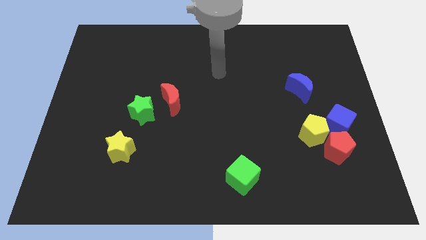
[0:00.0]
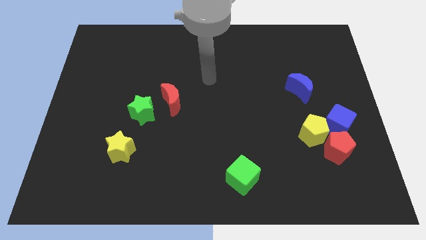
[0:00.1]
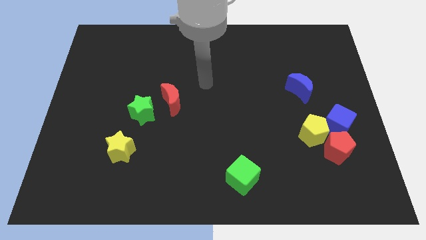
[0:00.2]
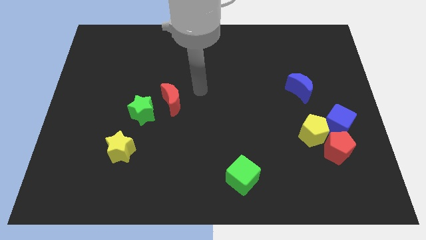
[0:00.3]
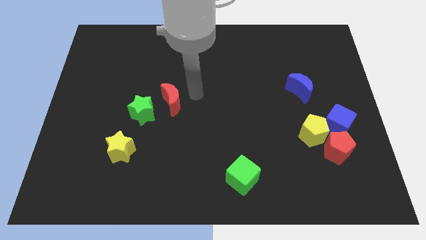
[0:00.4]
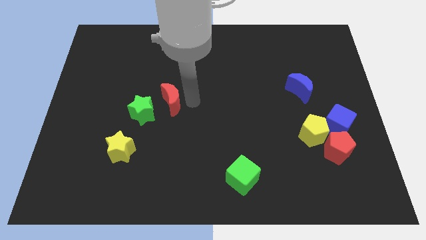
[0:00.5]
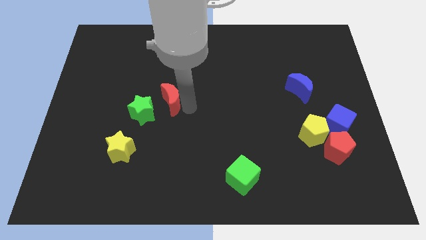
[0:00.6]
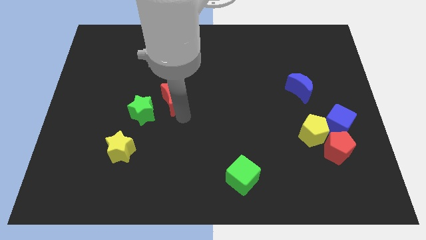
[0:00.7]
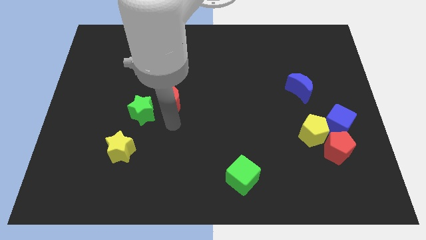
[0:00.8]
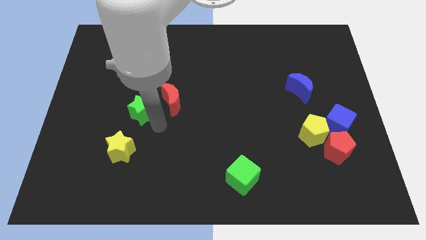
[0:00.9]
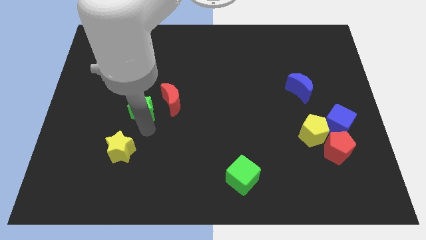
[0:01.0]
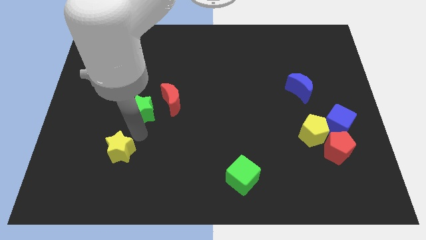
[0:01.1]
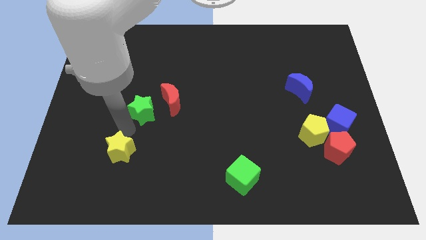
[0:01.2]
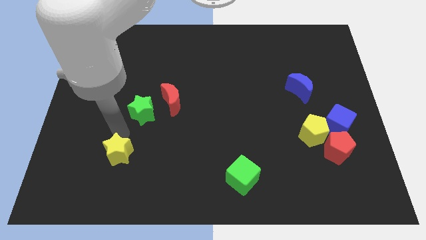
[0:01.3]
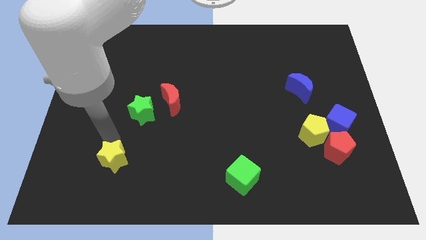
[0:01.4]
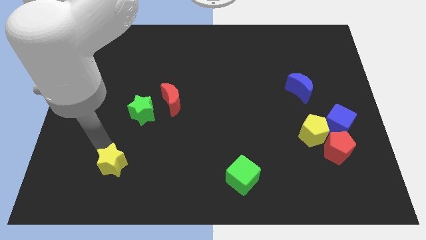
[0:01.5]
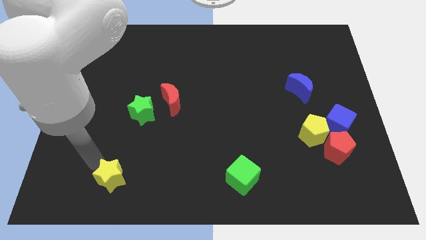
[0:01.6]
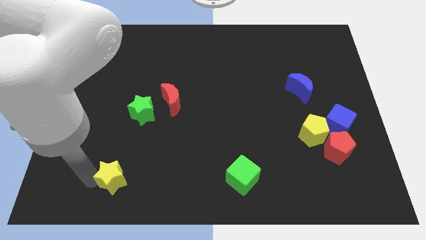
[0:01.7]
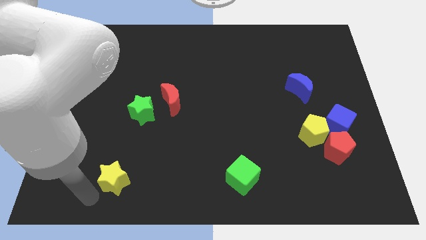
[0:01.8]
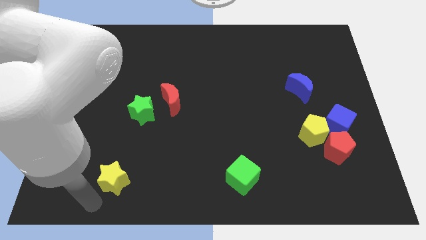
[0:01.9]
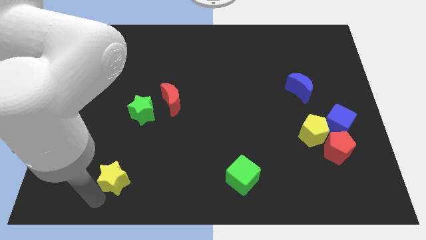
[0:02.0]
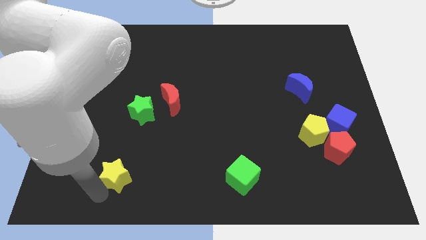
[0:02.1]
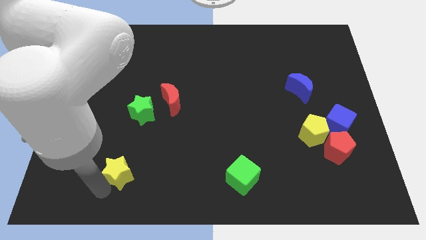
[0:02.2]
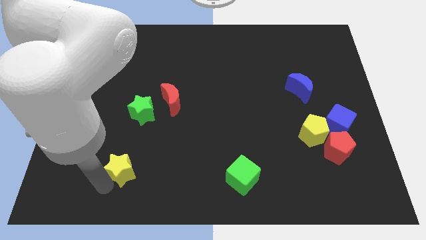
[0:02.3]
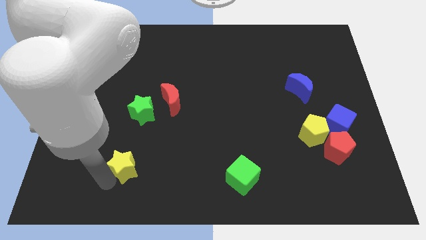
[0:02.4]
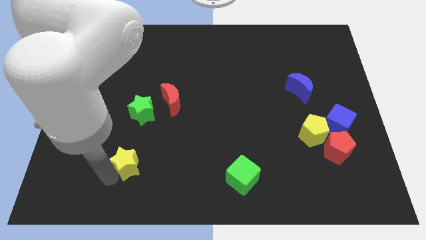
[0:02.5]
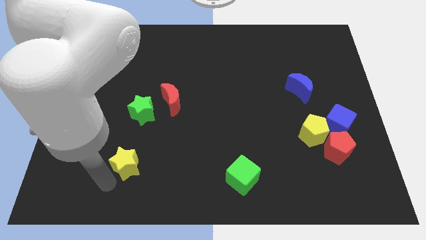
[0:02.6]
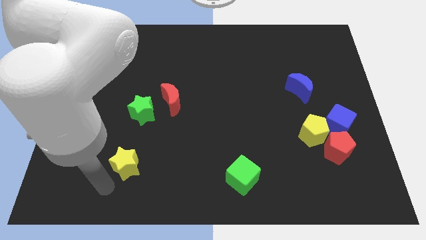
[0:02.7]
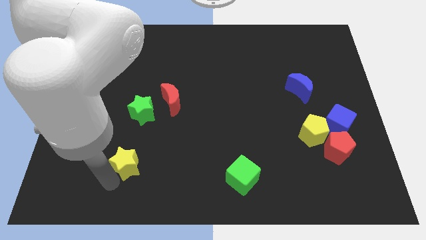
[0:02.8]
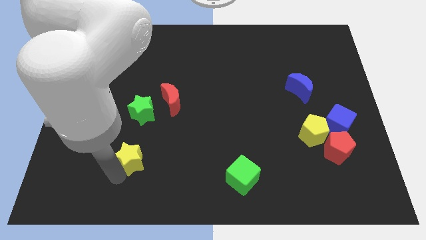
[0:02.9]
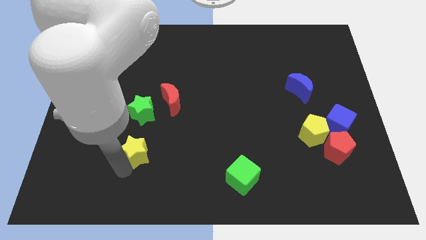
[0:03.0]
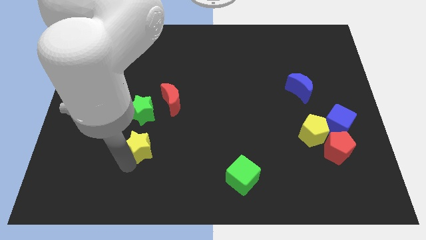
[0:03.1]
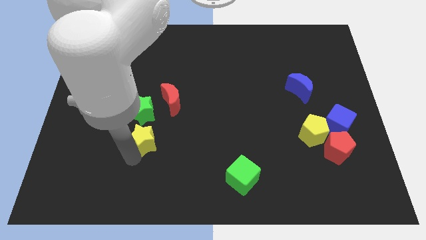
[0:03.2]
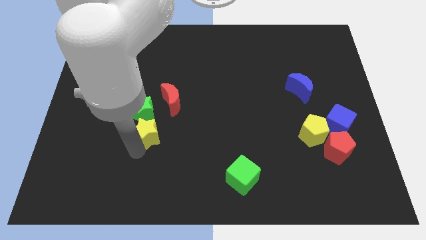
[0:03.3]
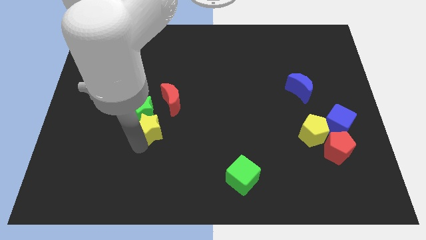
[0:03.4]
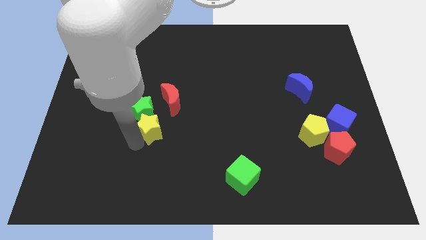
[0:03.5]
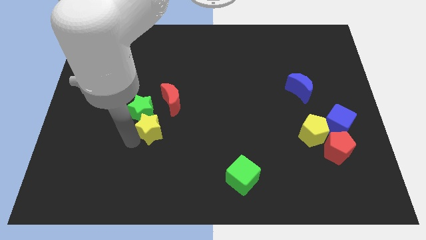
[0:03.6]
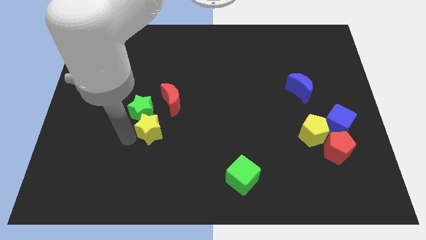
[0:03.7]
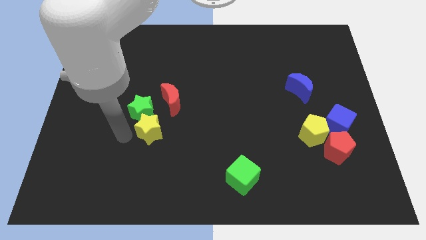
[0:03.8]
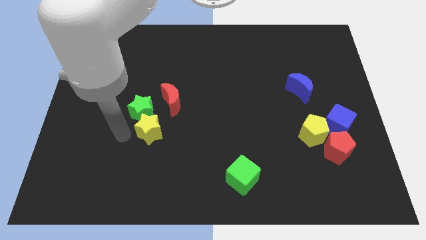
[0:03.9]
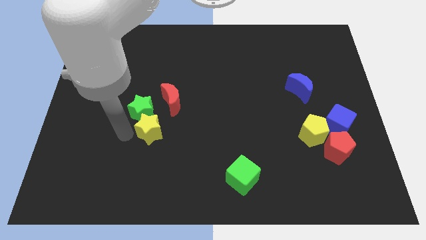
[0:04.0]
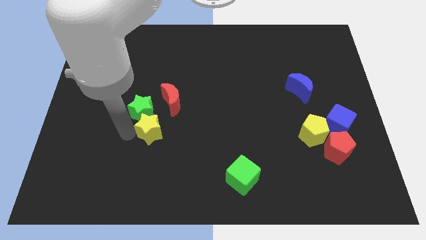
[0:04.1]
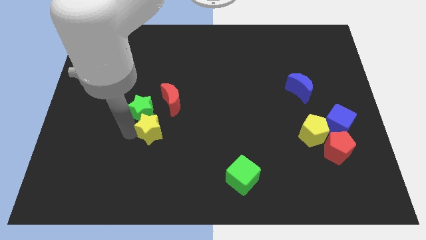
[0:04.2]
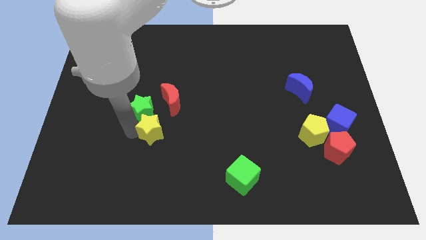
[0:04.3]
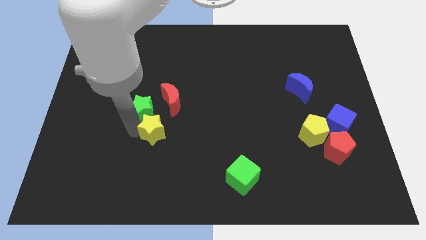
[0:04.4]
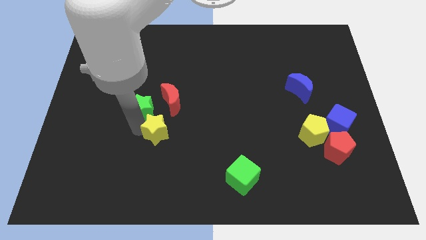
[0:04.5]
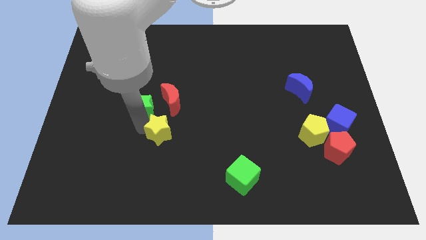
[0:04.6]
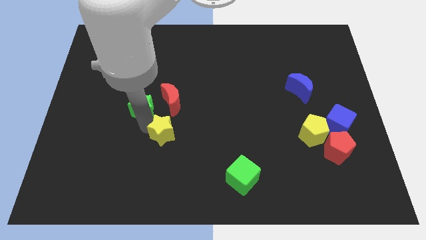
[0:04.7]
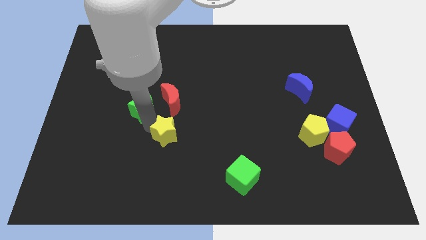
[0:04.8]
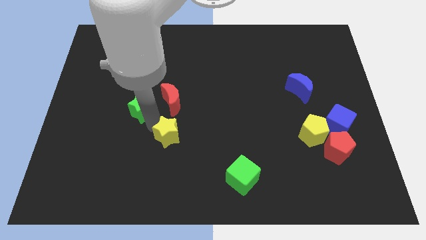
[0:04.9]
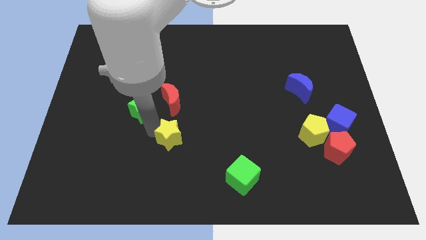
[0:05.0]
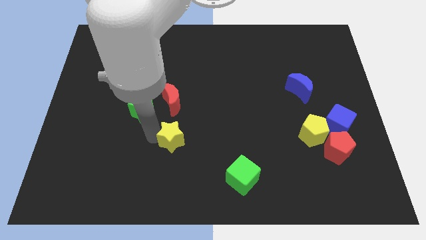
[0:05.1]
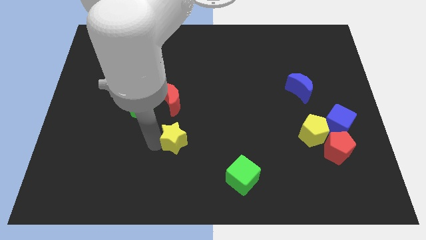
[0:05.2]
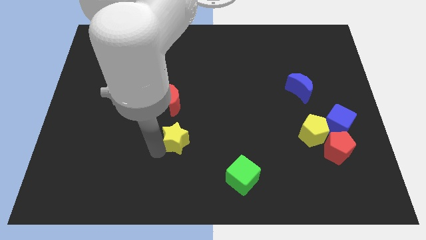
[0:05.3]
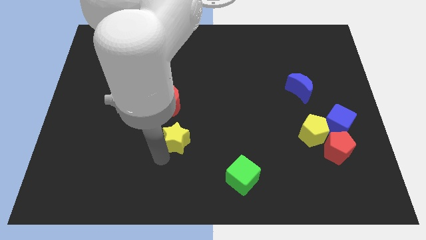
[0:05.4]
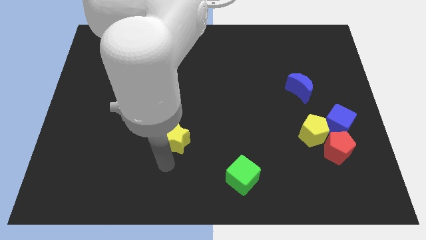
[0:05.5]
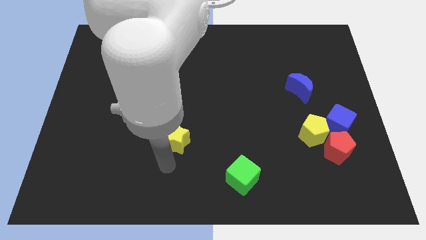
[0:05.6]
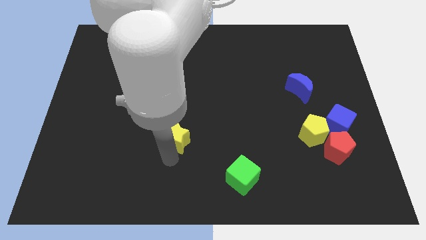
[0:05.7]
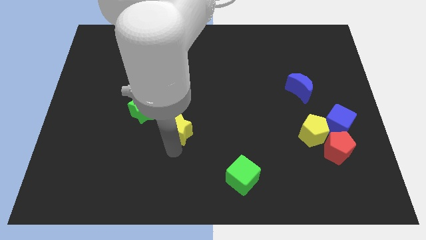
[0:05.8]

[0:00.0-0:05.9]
move the yellow star to the center of the board
